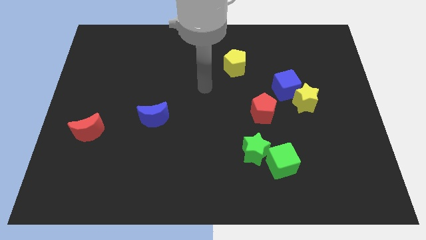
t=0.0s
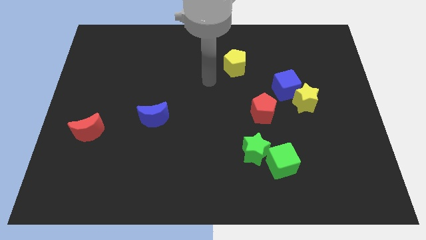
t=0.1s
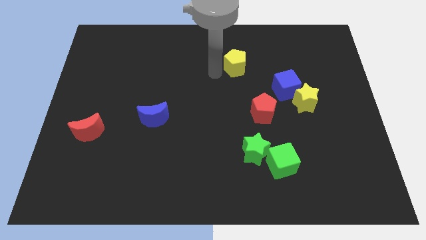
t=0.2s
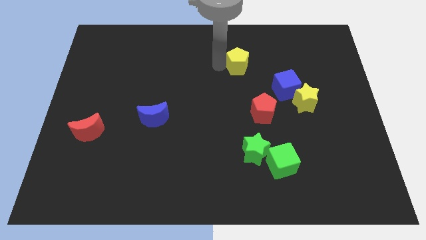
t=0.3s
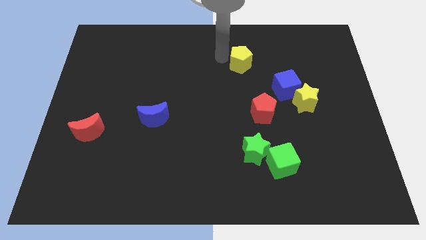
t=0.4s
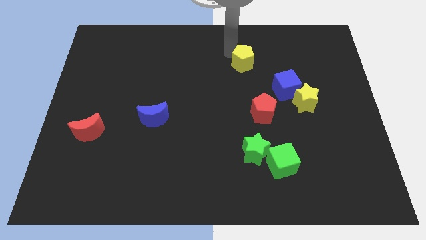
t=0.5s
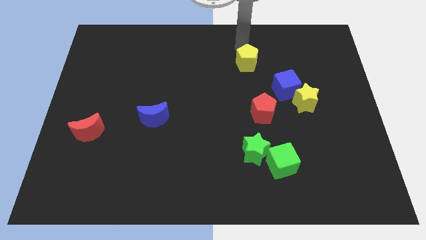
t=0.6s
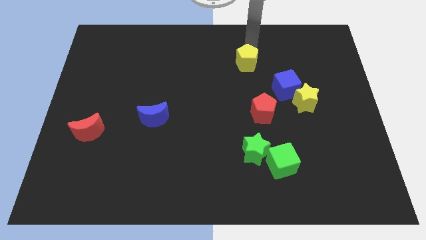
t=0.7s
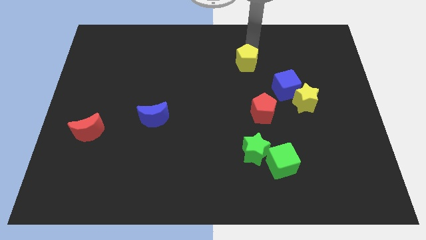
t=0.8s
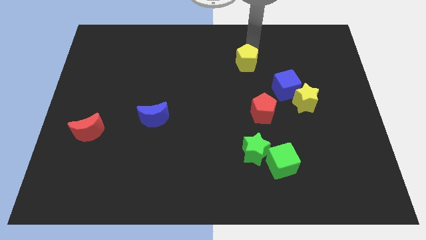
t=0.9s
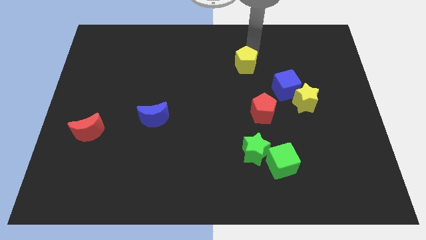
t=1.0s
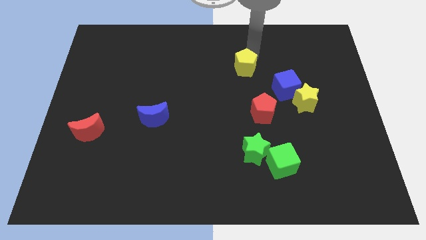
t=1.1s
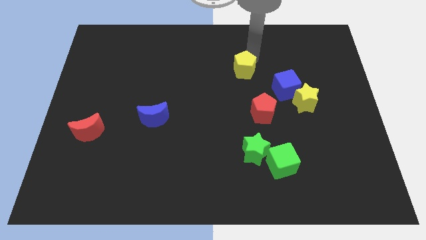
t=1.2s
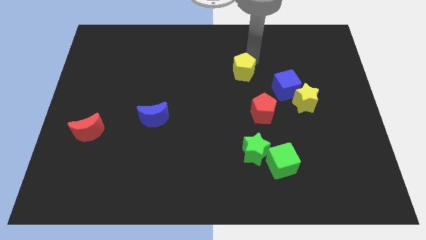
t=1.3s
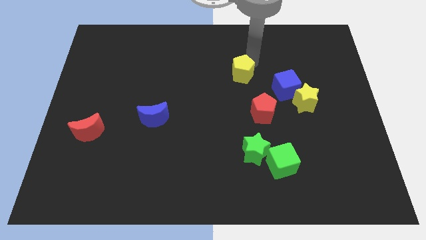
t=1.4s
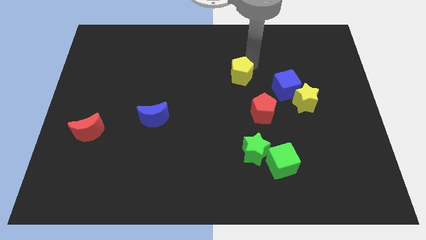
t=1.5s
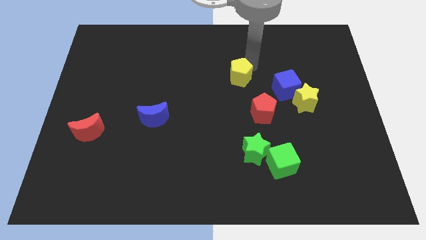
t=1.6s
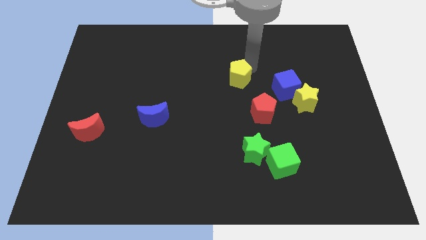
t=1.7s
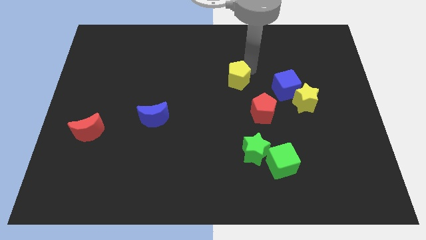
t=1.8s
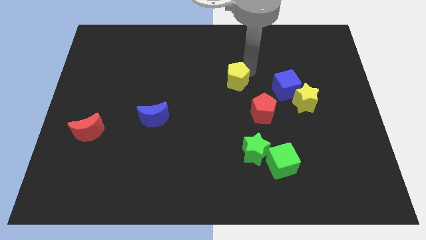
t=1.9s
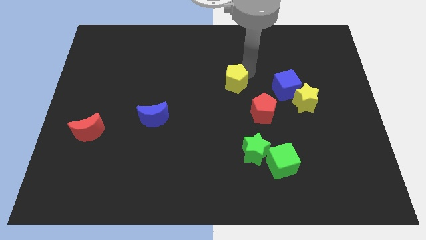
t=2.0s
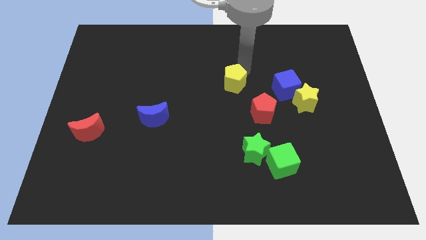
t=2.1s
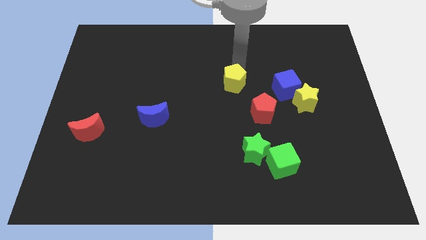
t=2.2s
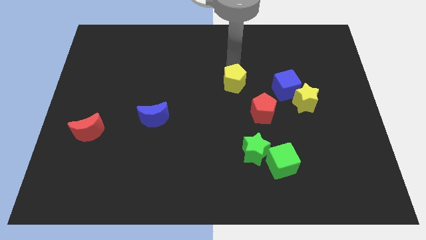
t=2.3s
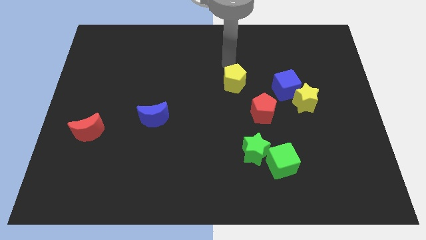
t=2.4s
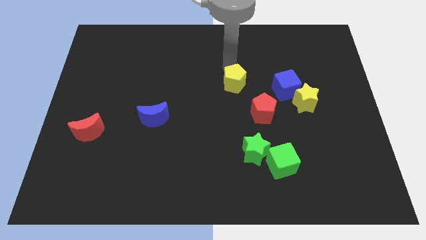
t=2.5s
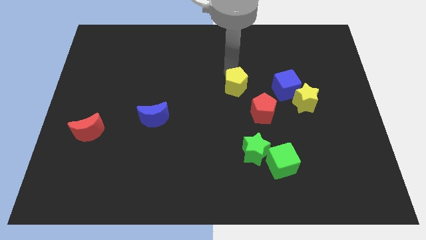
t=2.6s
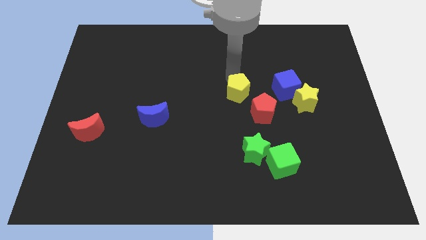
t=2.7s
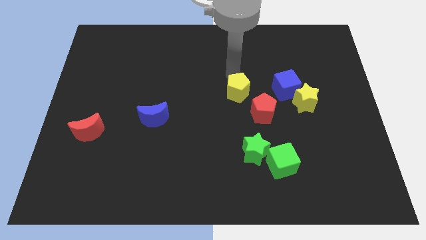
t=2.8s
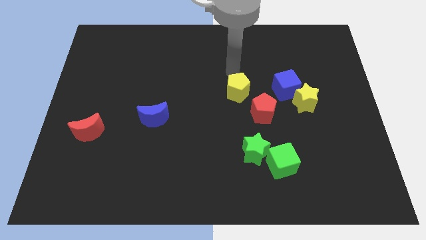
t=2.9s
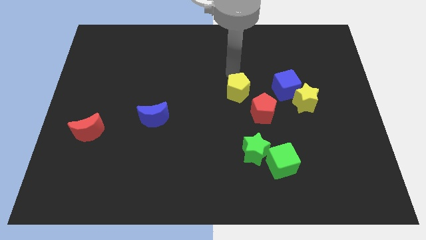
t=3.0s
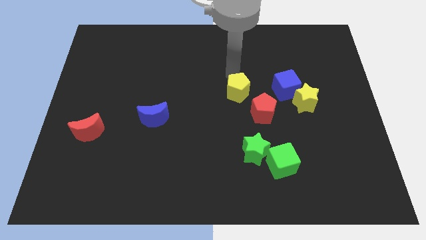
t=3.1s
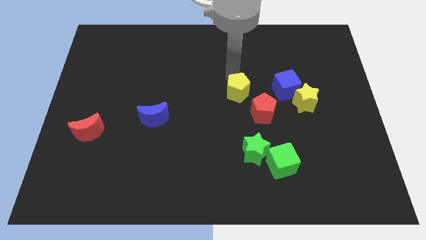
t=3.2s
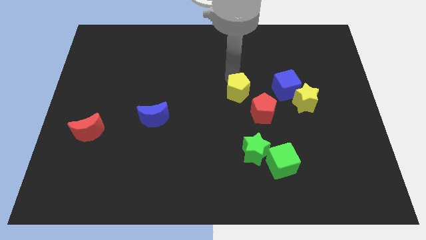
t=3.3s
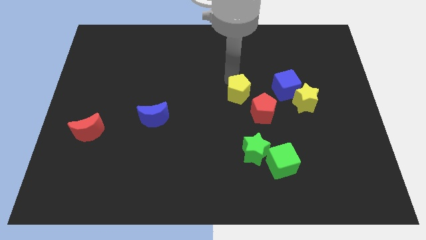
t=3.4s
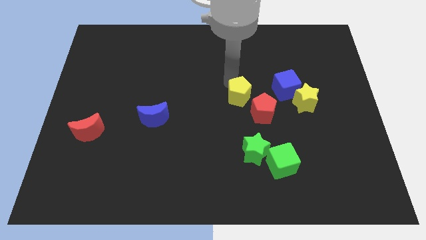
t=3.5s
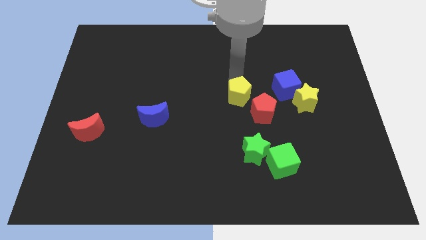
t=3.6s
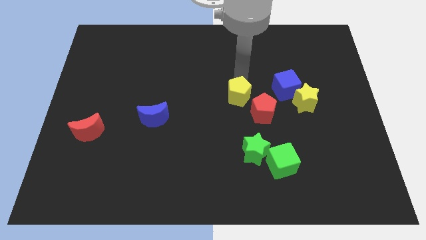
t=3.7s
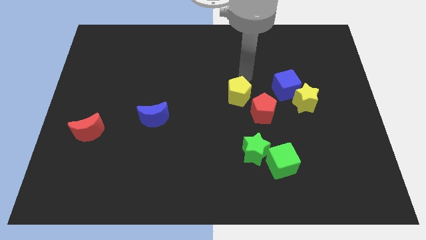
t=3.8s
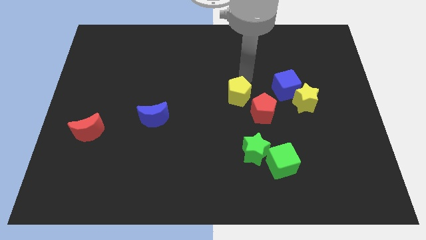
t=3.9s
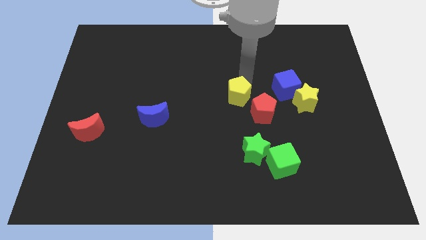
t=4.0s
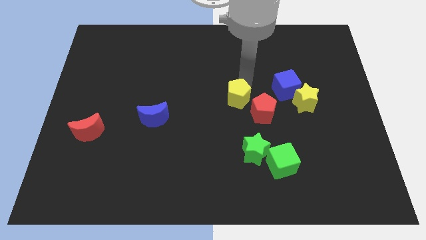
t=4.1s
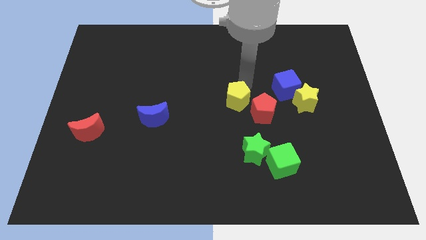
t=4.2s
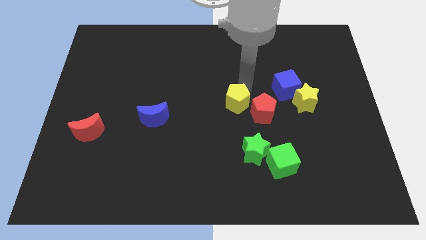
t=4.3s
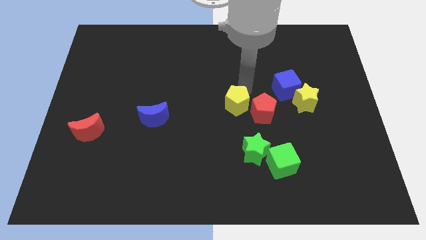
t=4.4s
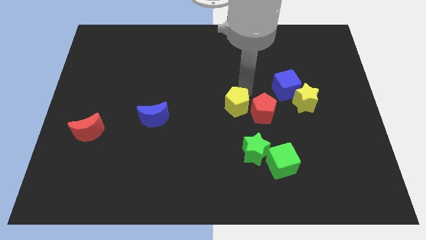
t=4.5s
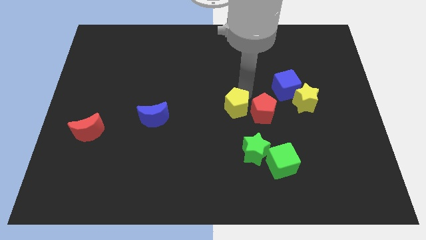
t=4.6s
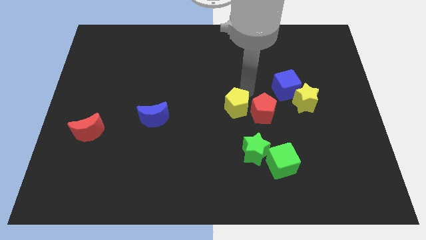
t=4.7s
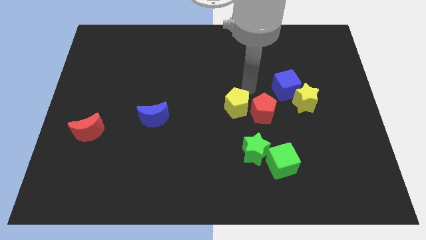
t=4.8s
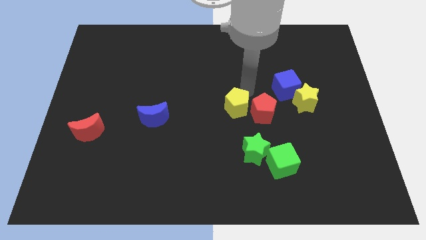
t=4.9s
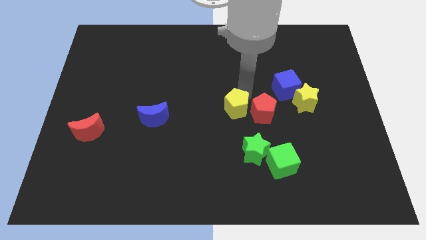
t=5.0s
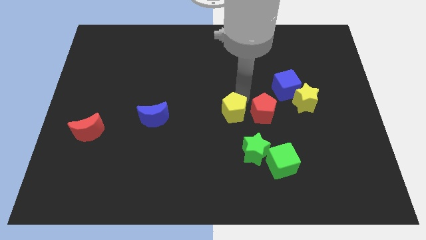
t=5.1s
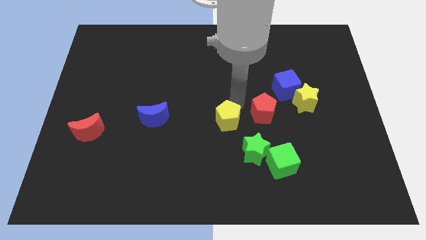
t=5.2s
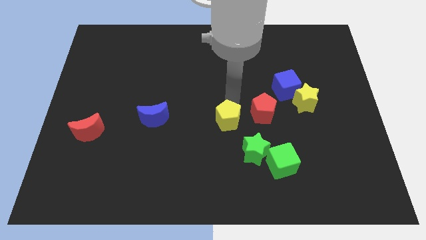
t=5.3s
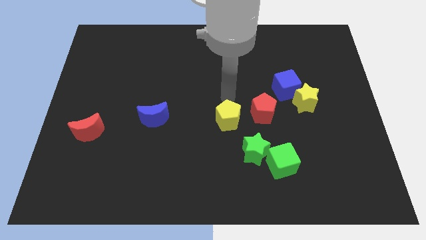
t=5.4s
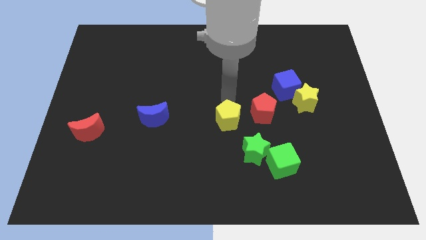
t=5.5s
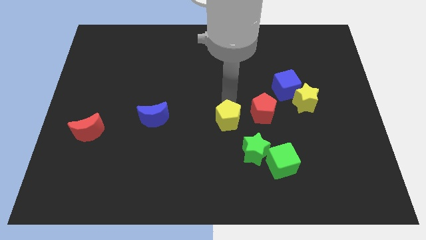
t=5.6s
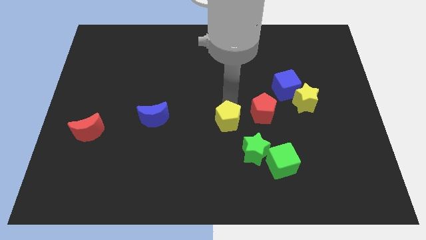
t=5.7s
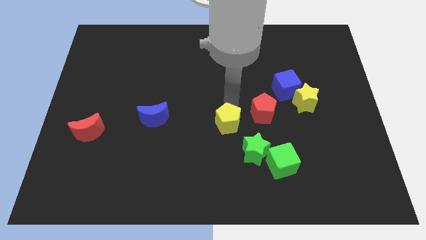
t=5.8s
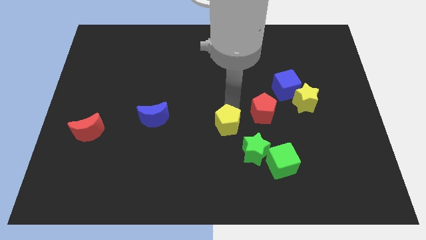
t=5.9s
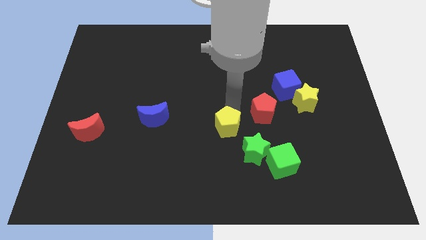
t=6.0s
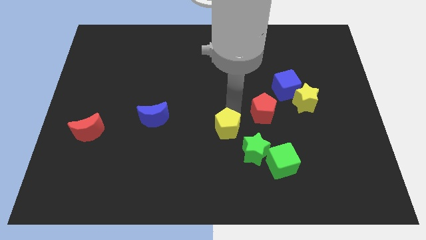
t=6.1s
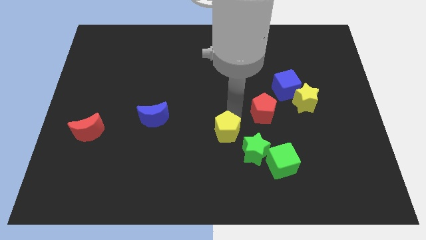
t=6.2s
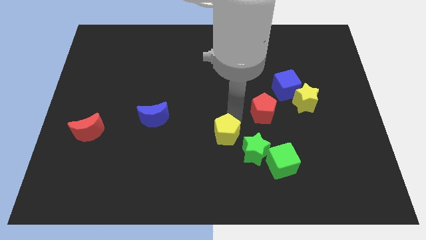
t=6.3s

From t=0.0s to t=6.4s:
move the yellow pentagon down

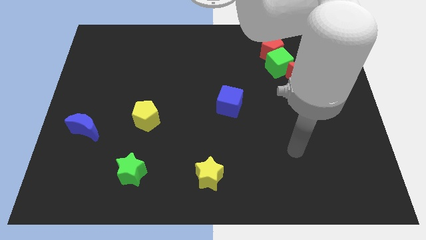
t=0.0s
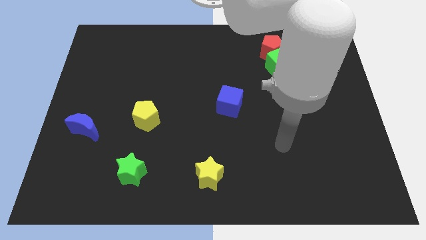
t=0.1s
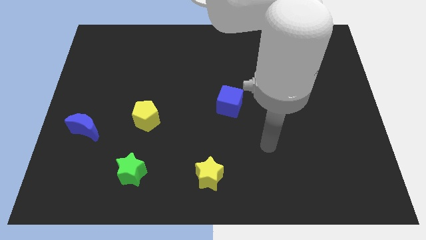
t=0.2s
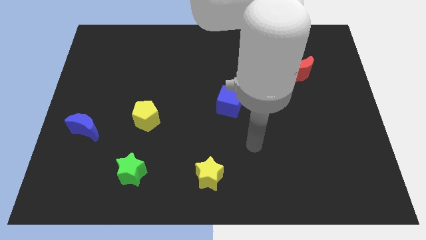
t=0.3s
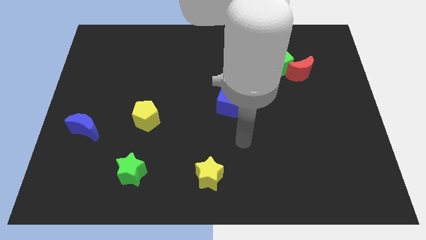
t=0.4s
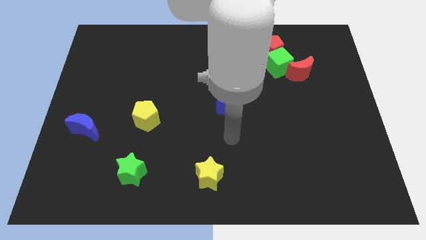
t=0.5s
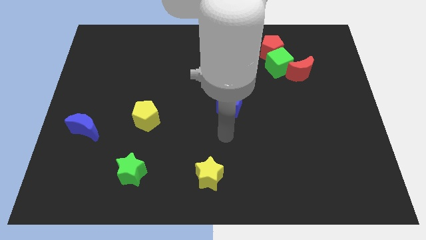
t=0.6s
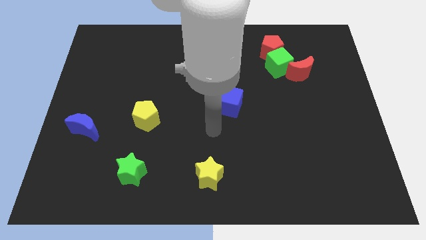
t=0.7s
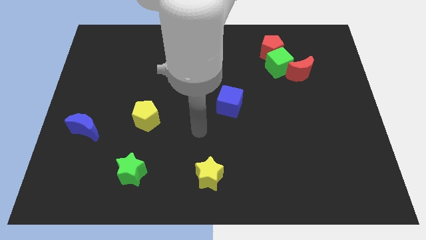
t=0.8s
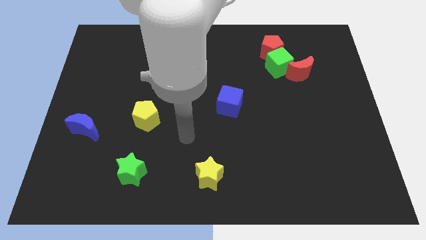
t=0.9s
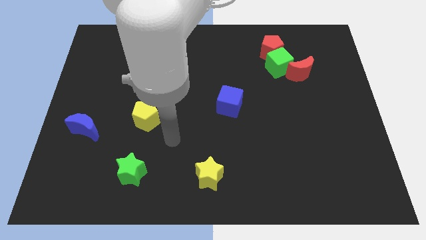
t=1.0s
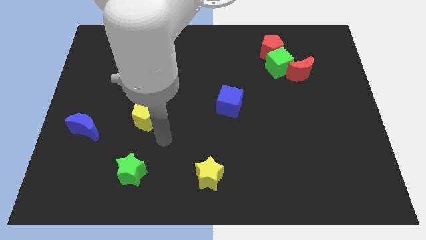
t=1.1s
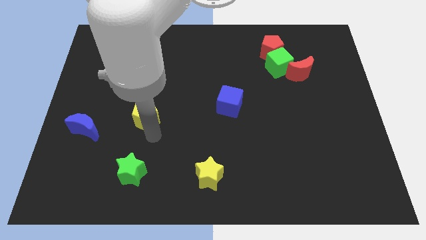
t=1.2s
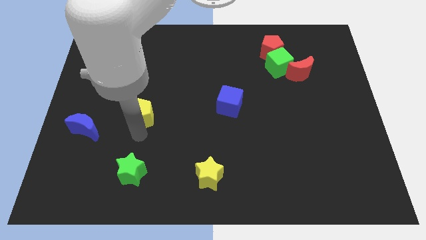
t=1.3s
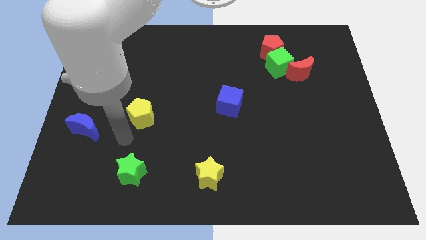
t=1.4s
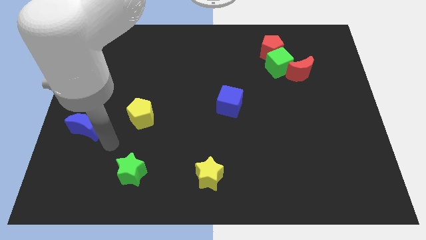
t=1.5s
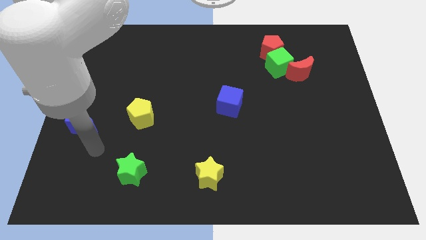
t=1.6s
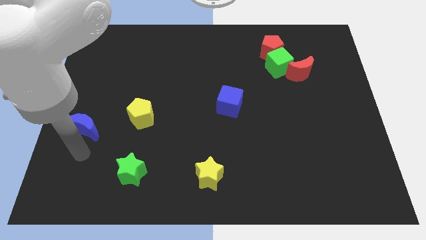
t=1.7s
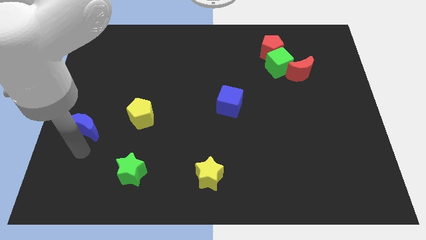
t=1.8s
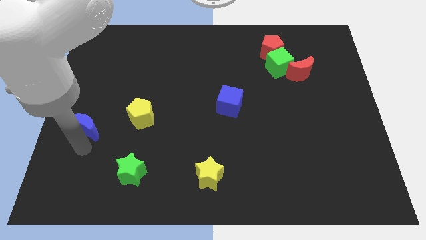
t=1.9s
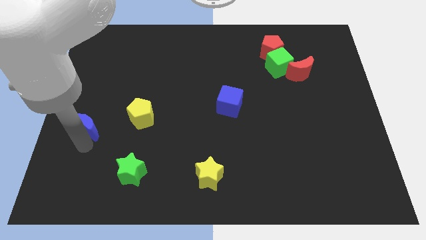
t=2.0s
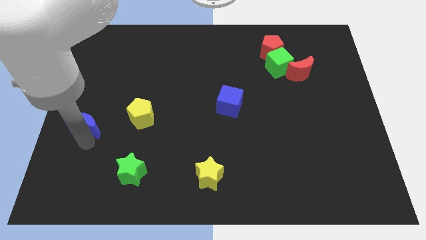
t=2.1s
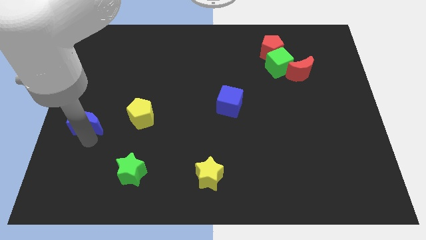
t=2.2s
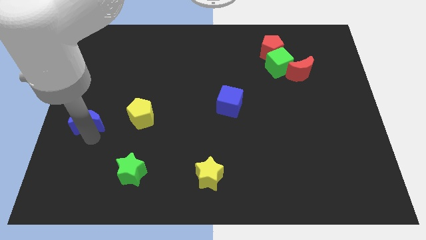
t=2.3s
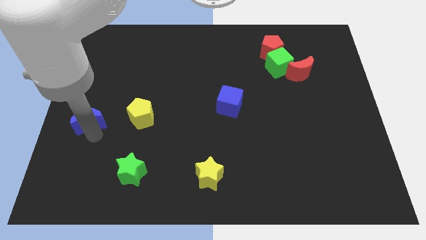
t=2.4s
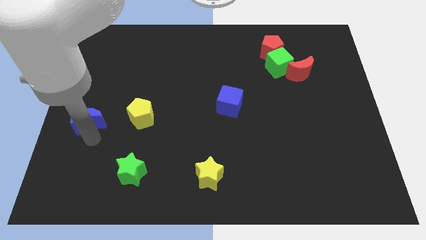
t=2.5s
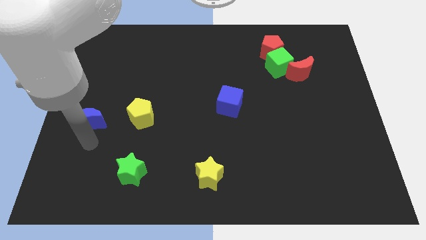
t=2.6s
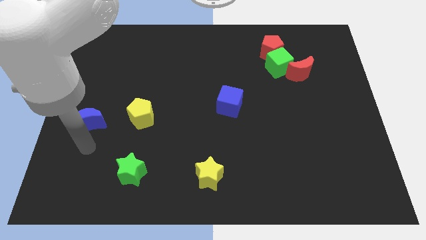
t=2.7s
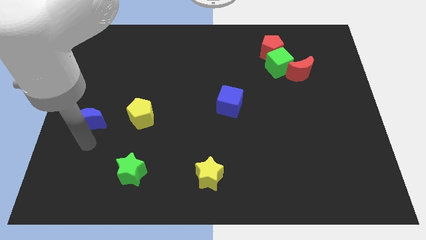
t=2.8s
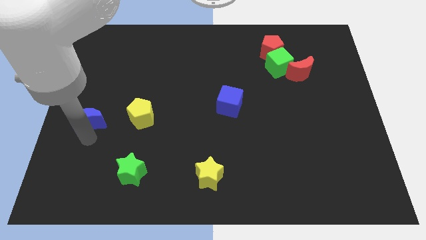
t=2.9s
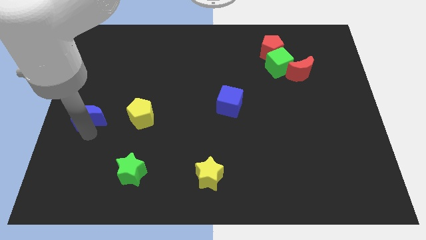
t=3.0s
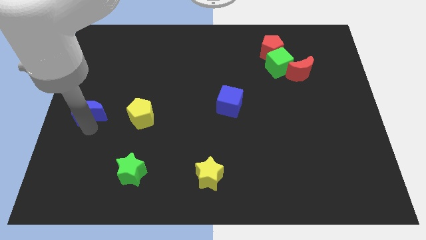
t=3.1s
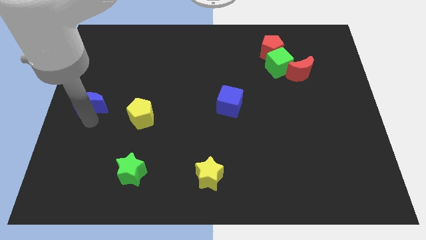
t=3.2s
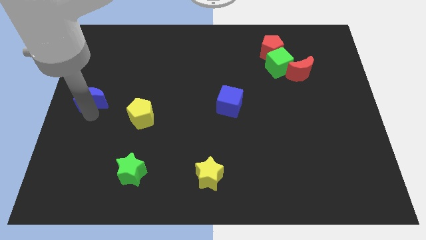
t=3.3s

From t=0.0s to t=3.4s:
slide the blue moon a little bit up
